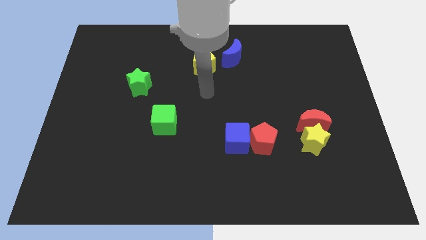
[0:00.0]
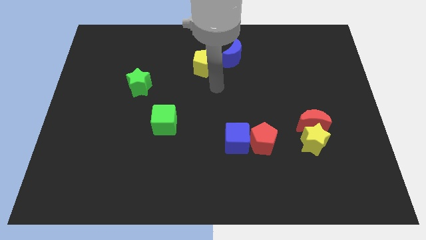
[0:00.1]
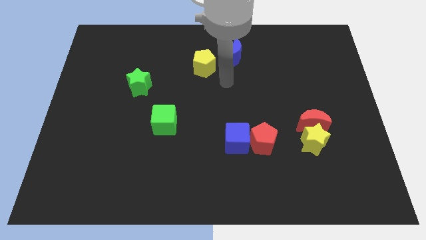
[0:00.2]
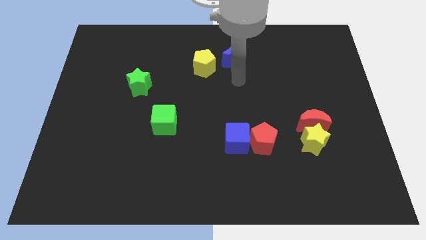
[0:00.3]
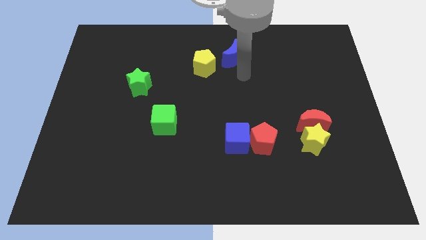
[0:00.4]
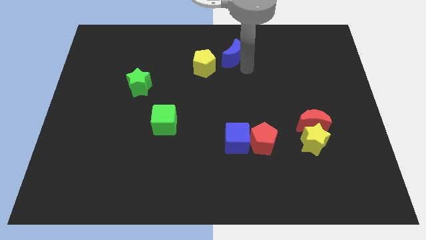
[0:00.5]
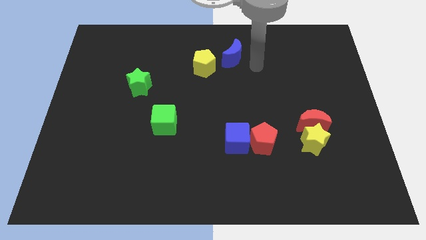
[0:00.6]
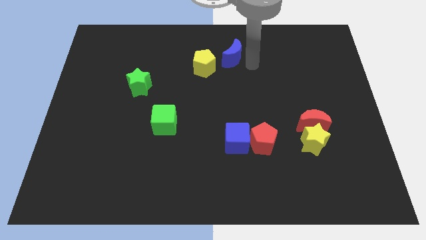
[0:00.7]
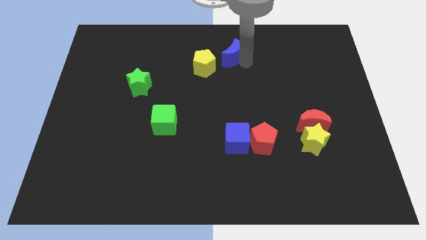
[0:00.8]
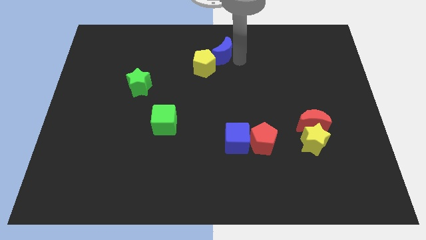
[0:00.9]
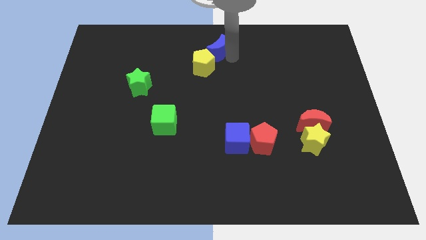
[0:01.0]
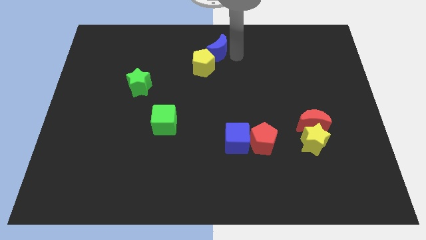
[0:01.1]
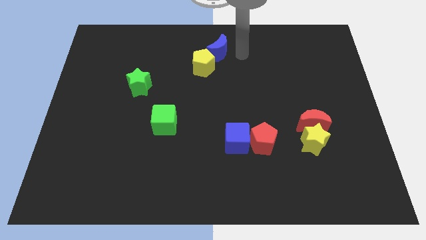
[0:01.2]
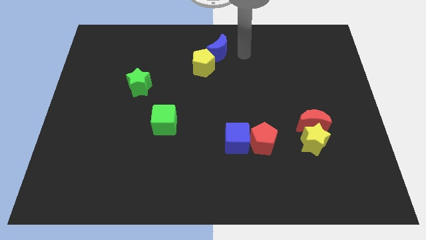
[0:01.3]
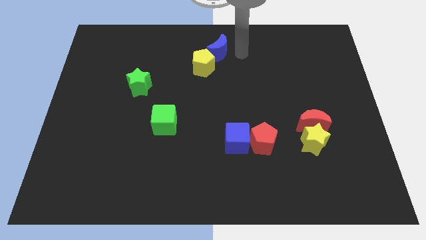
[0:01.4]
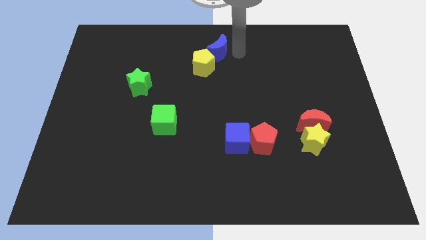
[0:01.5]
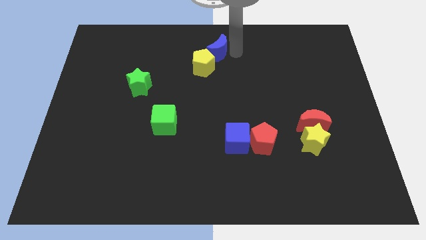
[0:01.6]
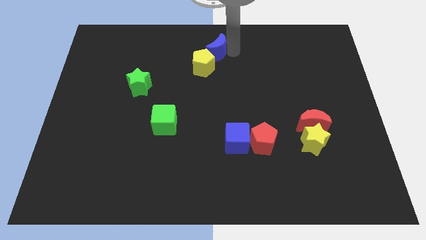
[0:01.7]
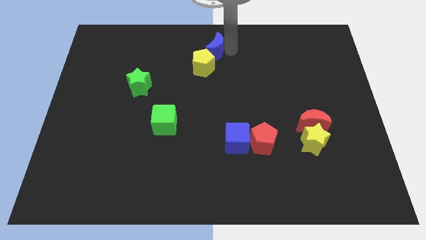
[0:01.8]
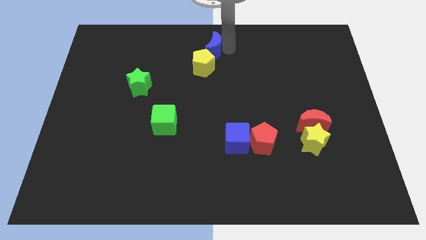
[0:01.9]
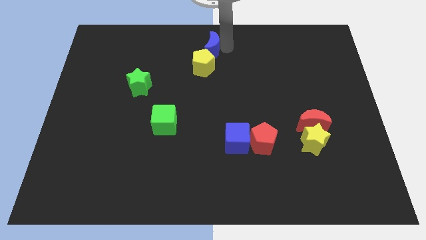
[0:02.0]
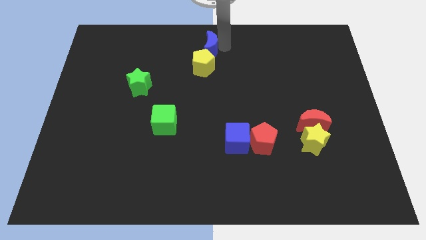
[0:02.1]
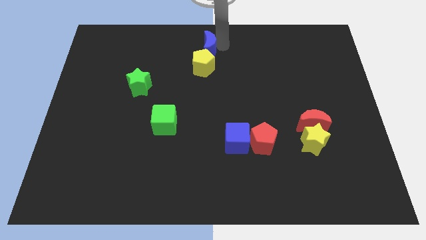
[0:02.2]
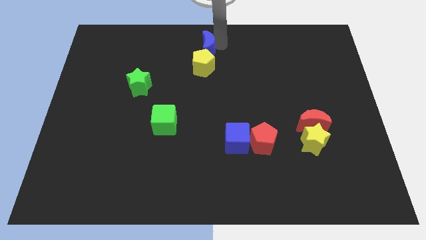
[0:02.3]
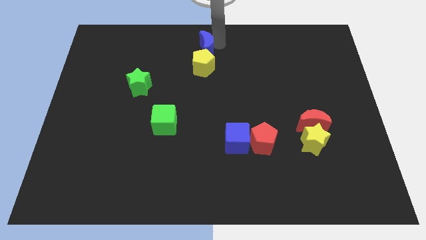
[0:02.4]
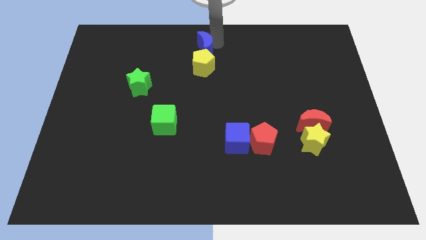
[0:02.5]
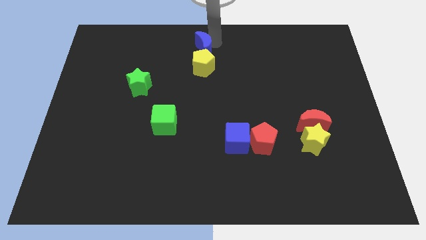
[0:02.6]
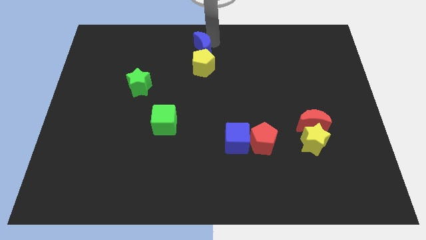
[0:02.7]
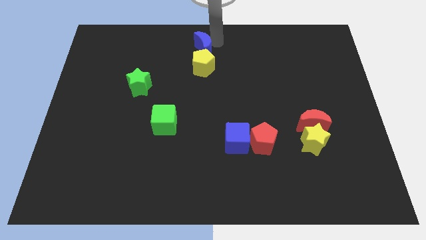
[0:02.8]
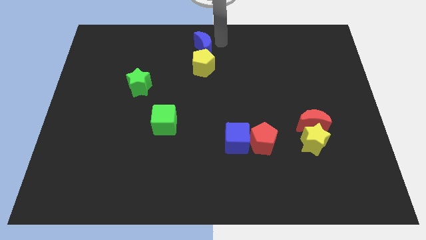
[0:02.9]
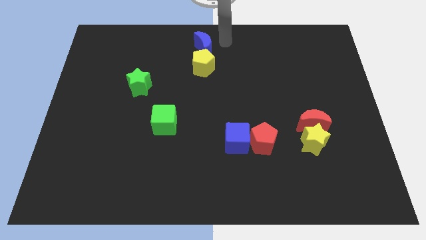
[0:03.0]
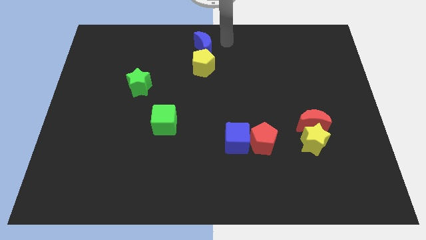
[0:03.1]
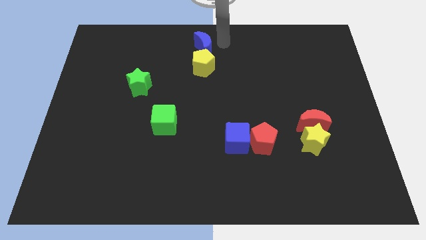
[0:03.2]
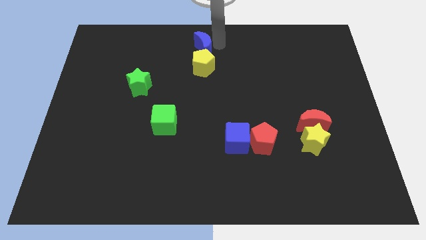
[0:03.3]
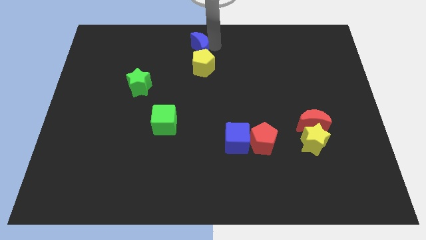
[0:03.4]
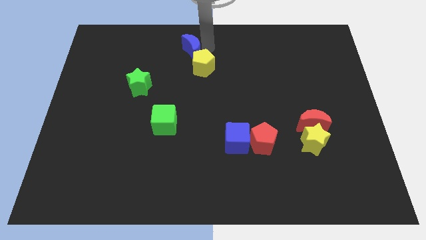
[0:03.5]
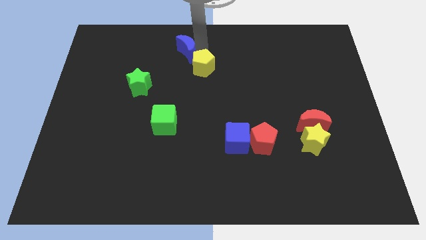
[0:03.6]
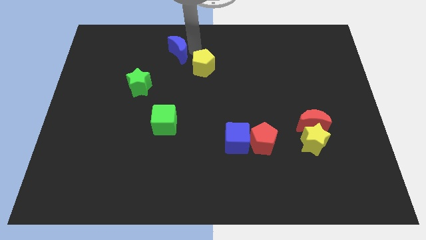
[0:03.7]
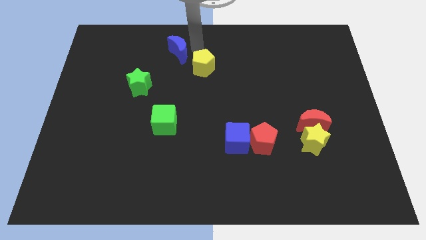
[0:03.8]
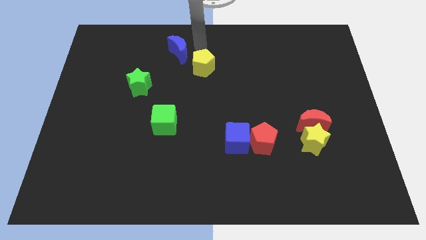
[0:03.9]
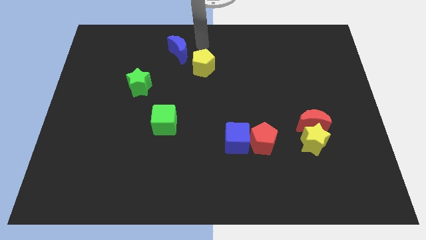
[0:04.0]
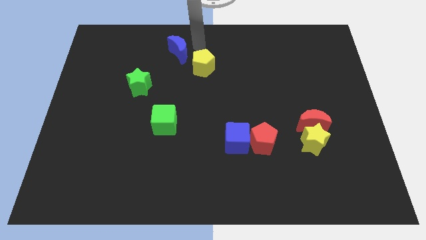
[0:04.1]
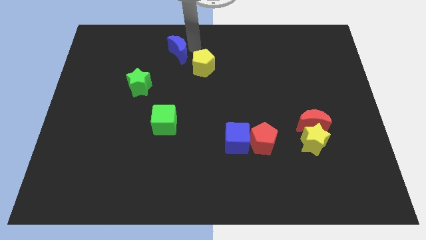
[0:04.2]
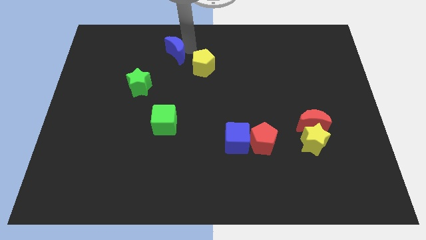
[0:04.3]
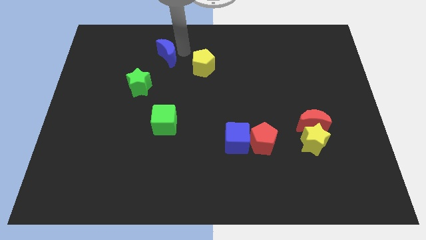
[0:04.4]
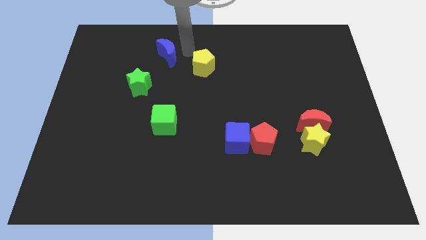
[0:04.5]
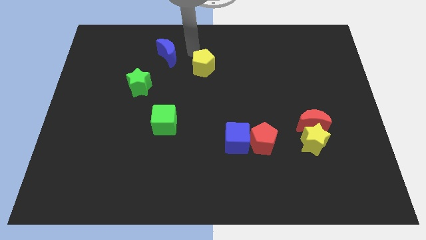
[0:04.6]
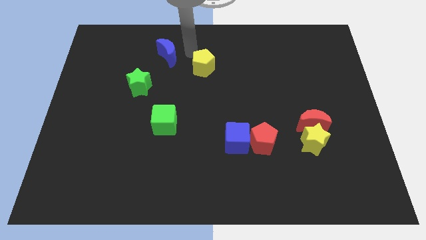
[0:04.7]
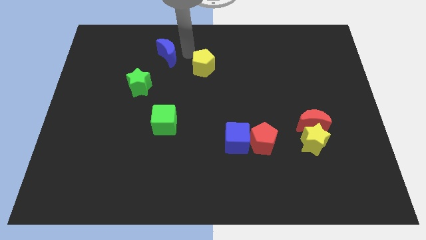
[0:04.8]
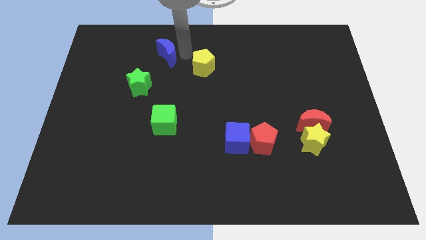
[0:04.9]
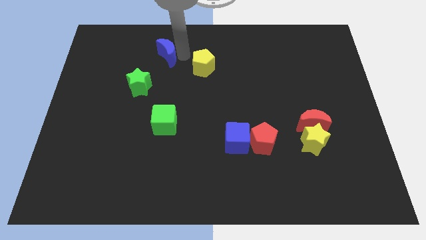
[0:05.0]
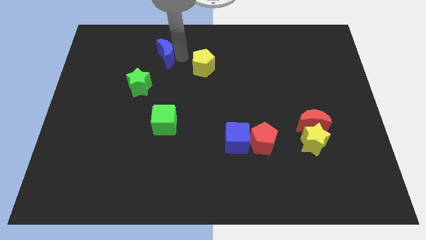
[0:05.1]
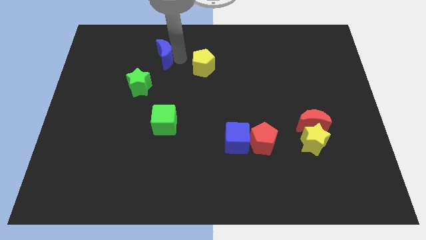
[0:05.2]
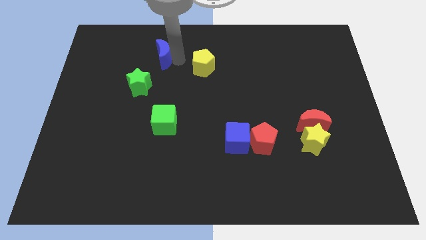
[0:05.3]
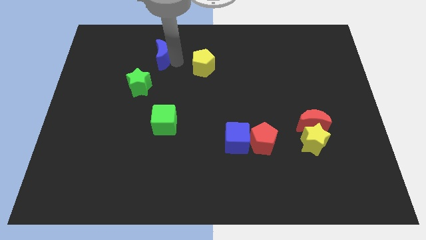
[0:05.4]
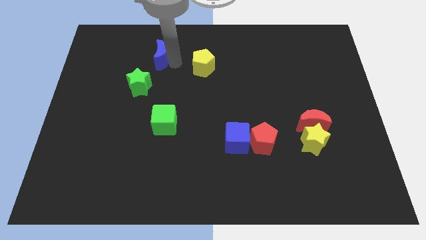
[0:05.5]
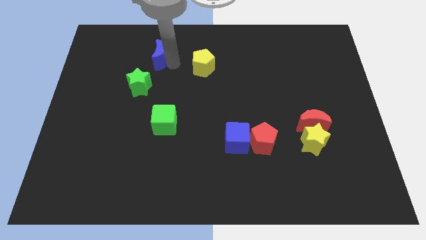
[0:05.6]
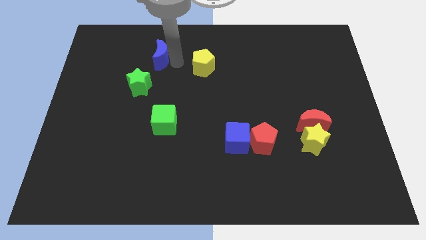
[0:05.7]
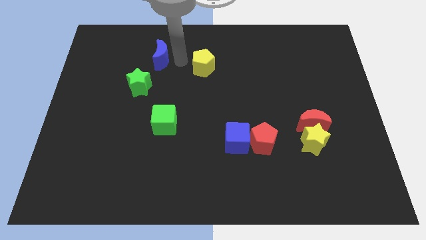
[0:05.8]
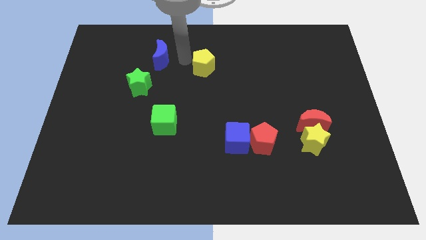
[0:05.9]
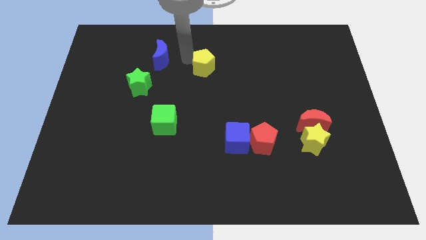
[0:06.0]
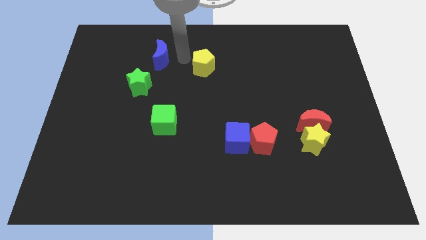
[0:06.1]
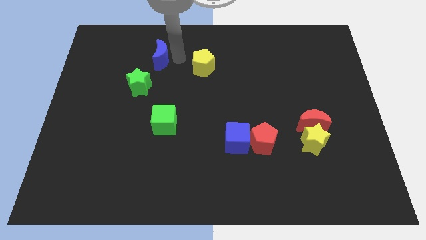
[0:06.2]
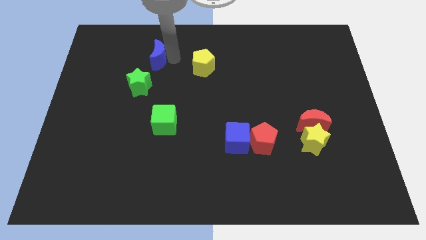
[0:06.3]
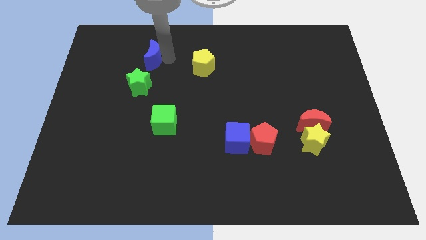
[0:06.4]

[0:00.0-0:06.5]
move the blue moon to the left

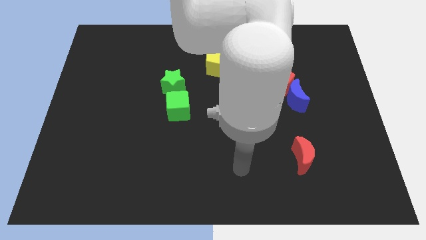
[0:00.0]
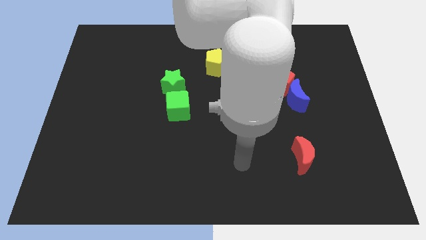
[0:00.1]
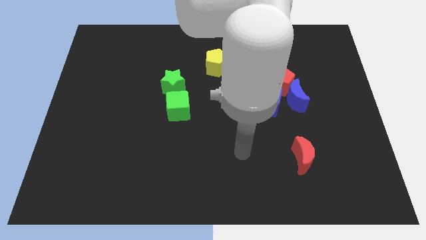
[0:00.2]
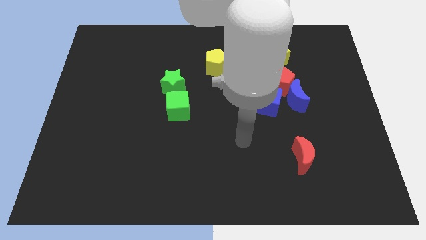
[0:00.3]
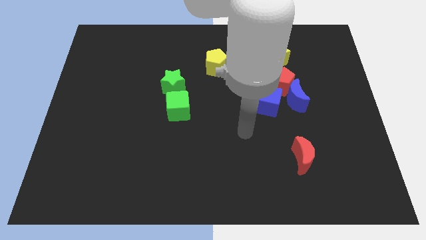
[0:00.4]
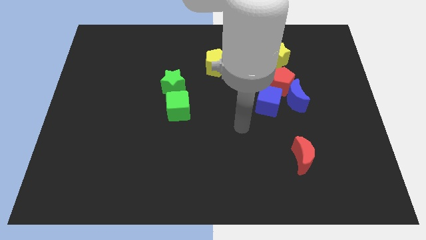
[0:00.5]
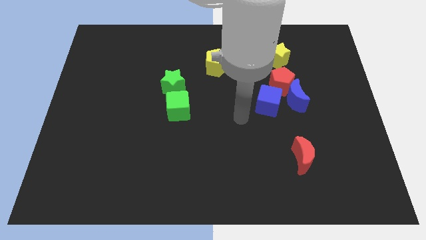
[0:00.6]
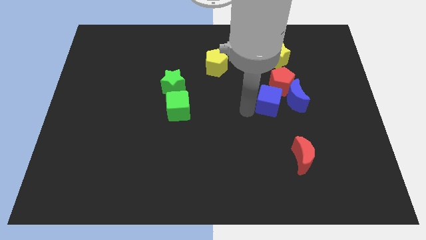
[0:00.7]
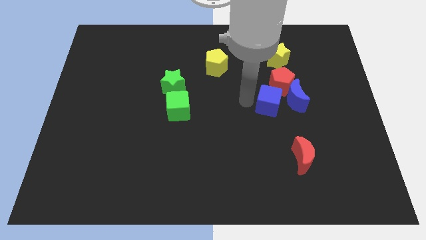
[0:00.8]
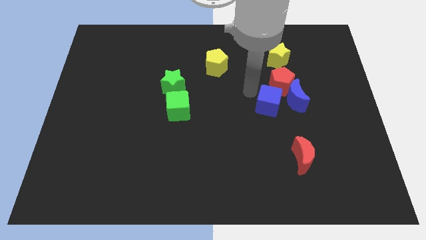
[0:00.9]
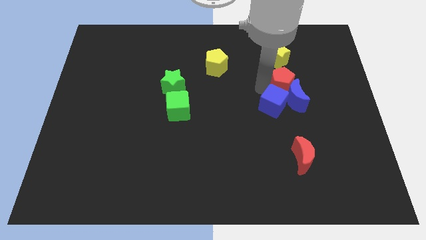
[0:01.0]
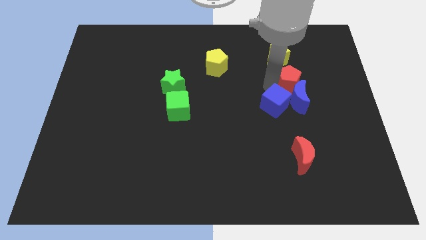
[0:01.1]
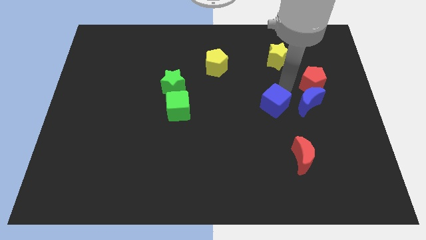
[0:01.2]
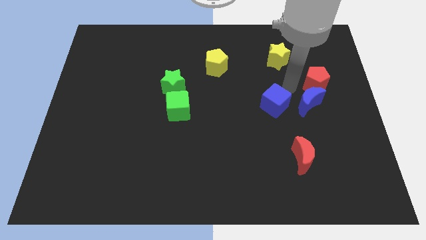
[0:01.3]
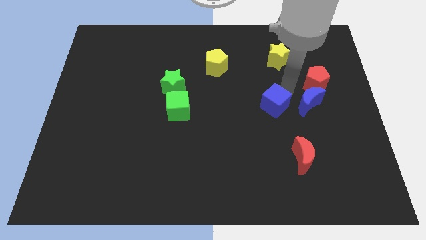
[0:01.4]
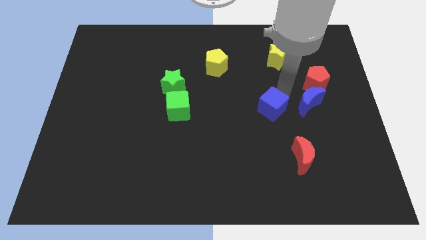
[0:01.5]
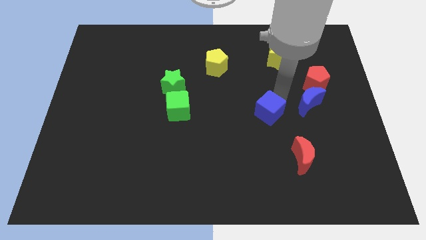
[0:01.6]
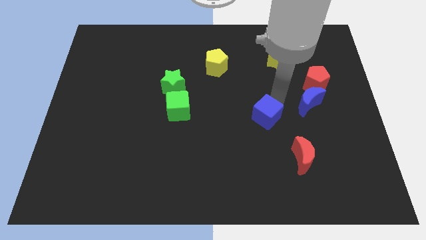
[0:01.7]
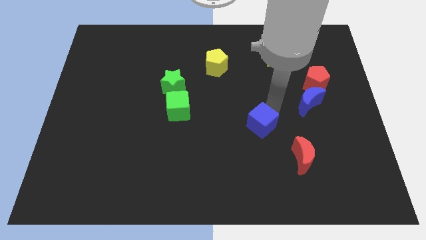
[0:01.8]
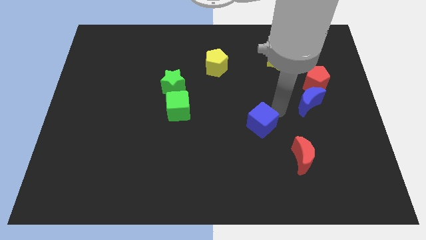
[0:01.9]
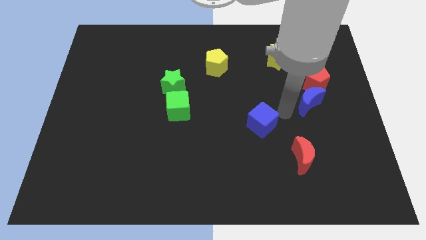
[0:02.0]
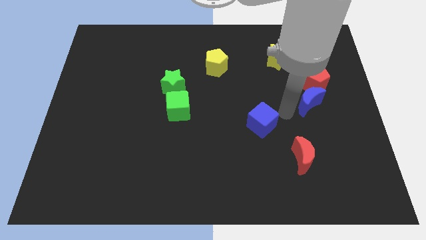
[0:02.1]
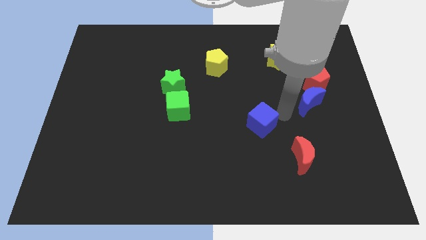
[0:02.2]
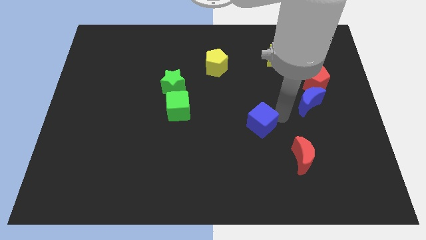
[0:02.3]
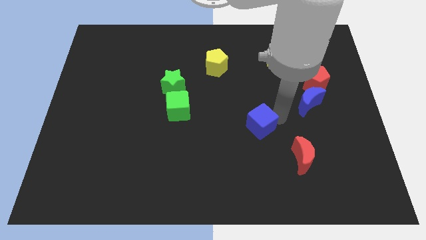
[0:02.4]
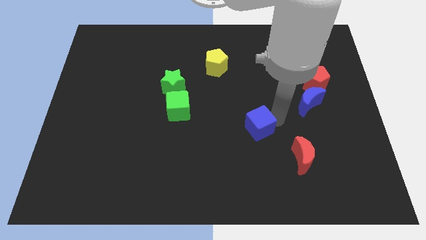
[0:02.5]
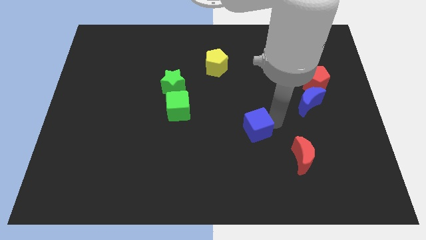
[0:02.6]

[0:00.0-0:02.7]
slightly slide the blue cube downwards and left
